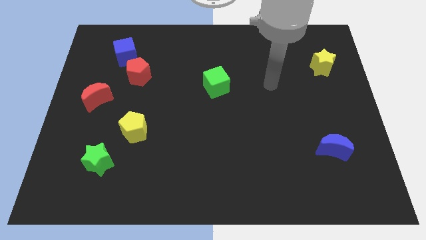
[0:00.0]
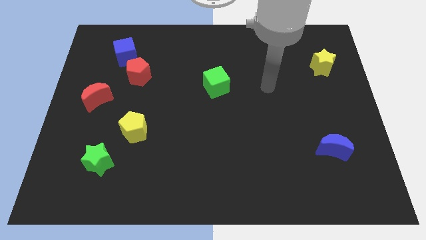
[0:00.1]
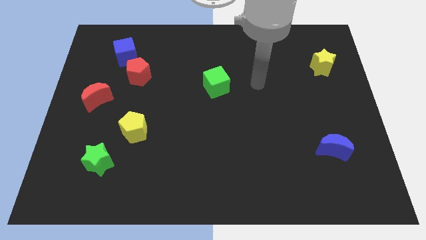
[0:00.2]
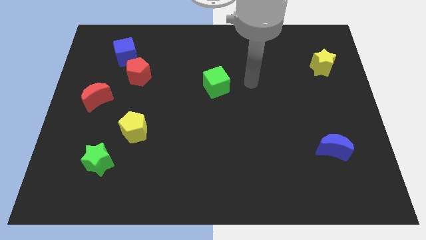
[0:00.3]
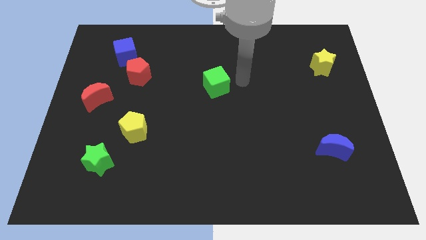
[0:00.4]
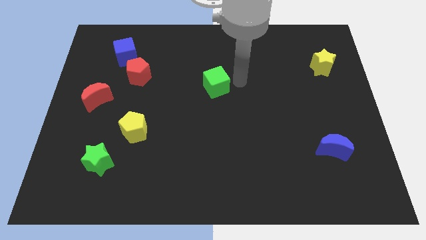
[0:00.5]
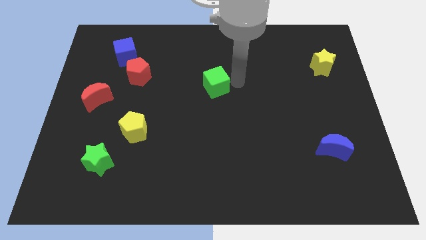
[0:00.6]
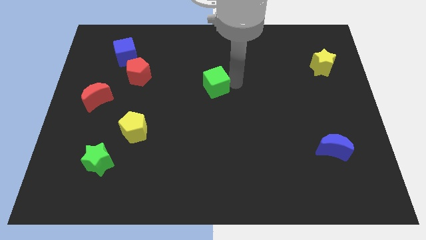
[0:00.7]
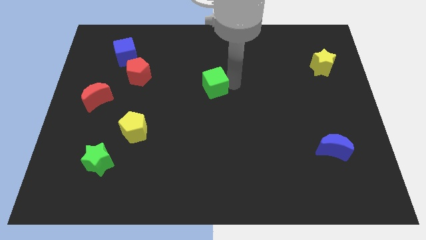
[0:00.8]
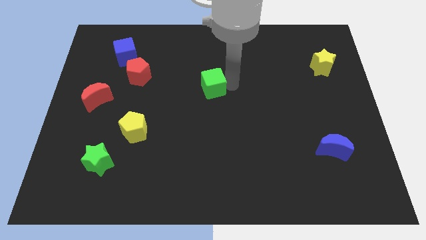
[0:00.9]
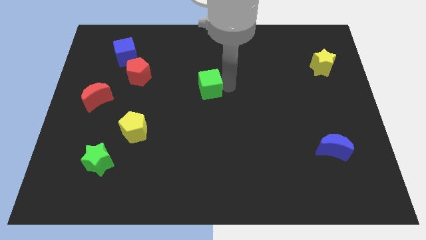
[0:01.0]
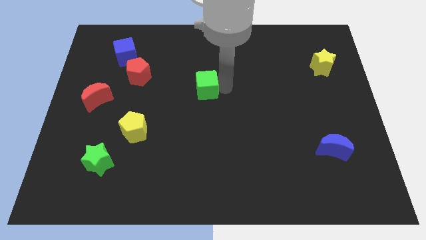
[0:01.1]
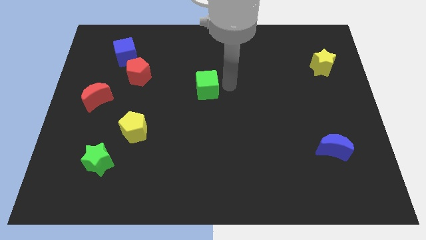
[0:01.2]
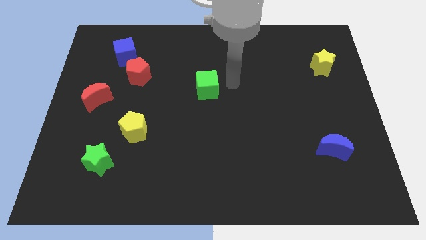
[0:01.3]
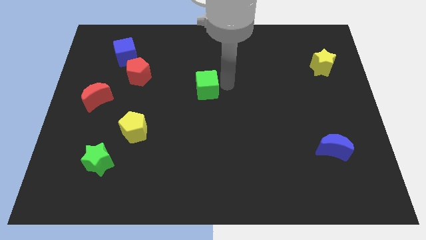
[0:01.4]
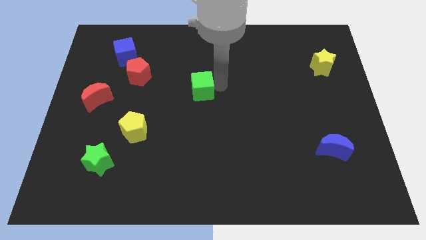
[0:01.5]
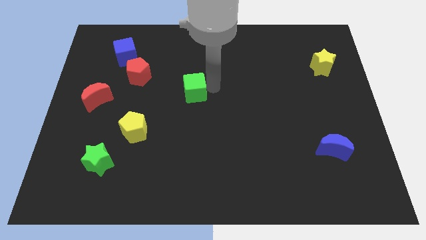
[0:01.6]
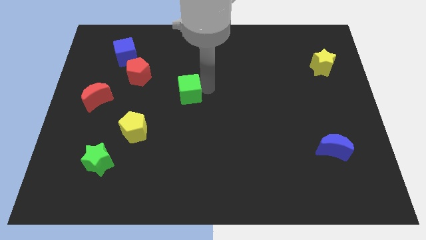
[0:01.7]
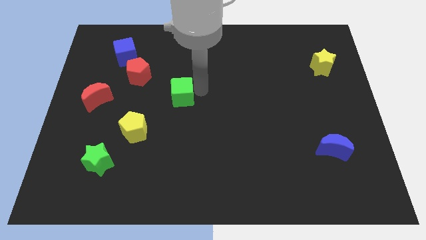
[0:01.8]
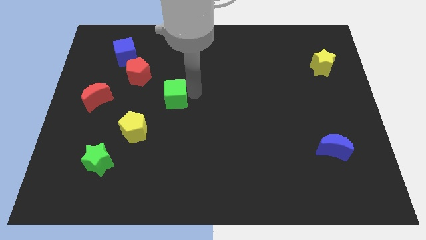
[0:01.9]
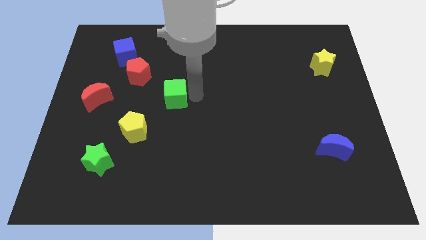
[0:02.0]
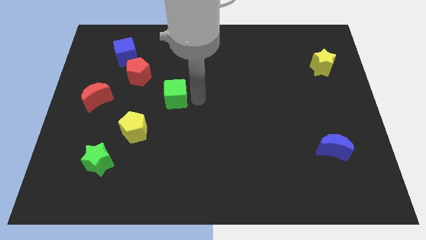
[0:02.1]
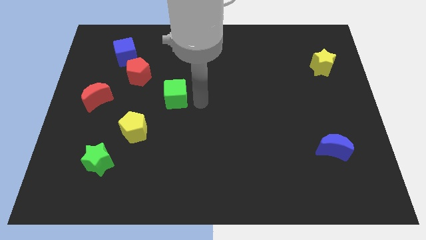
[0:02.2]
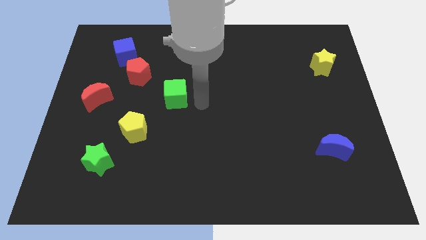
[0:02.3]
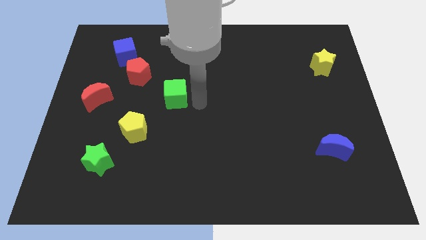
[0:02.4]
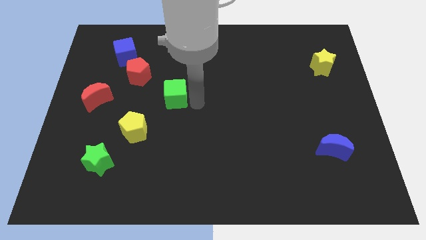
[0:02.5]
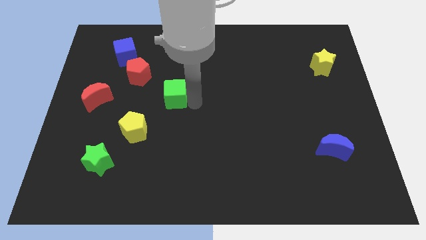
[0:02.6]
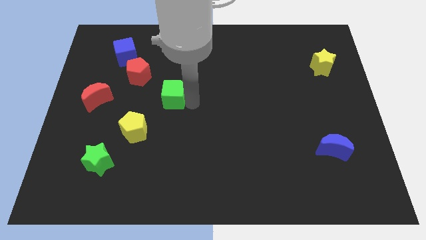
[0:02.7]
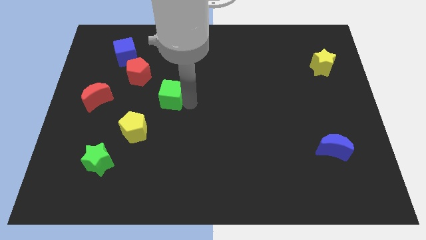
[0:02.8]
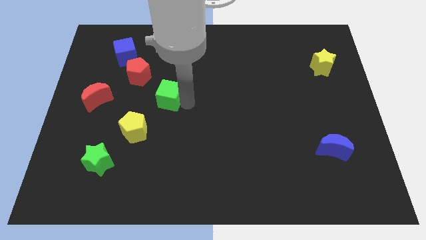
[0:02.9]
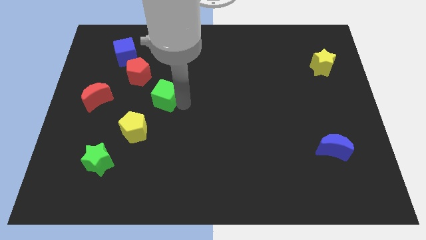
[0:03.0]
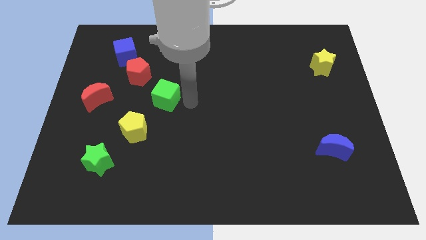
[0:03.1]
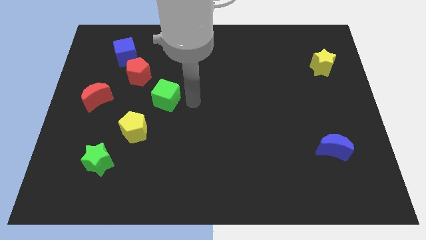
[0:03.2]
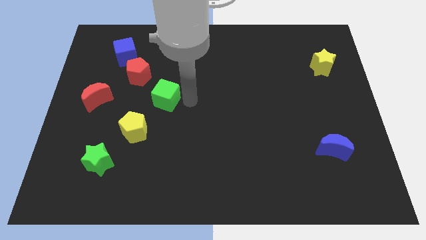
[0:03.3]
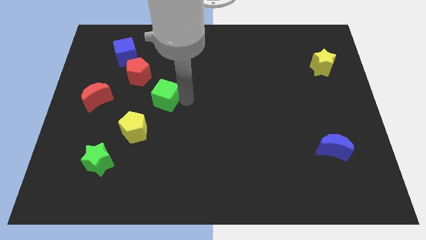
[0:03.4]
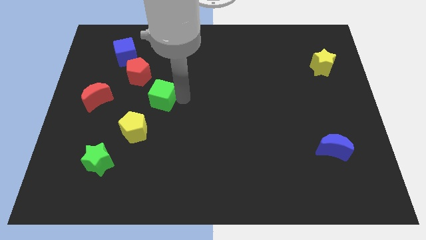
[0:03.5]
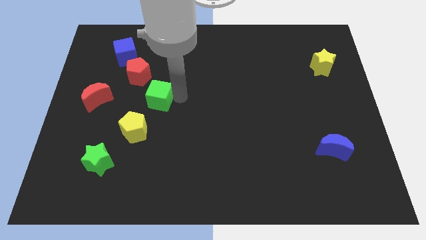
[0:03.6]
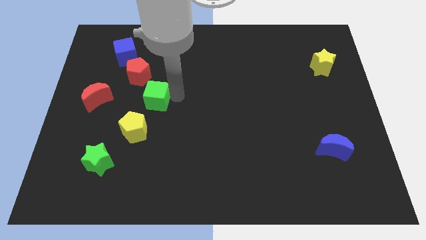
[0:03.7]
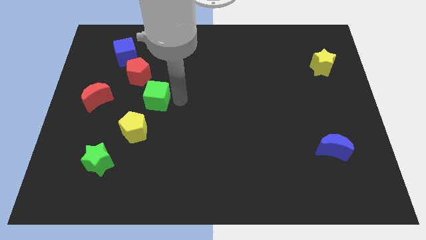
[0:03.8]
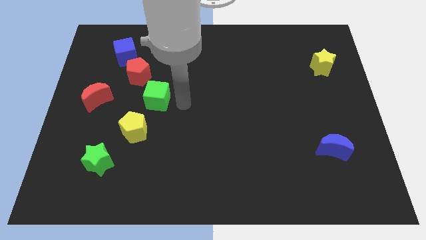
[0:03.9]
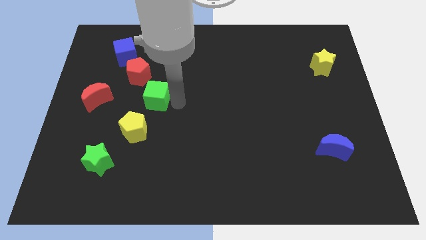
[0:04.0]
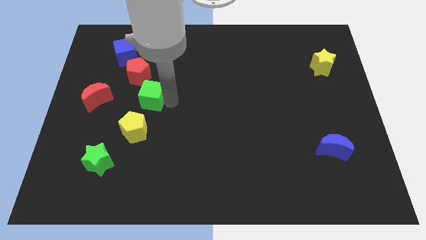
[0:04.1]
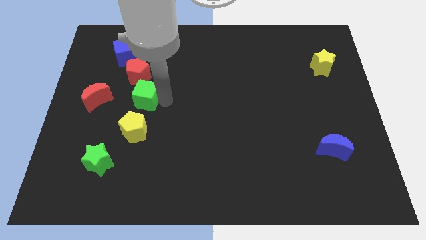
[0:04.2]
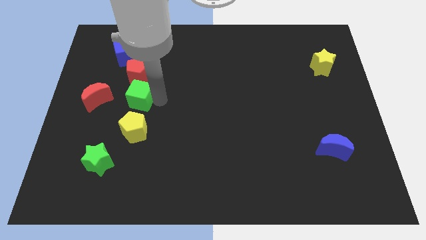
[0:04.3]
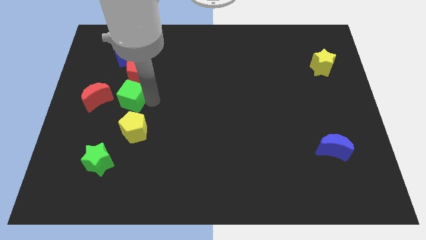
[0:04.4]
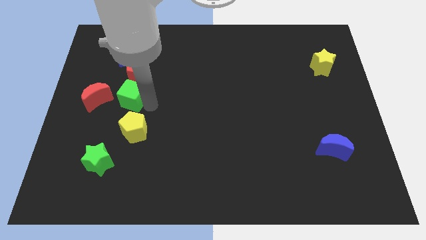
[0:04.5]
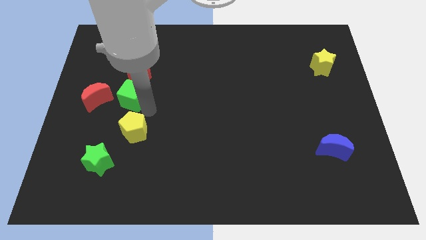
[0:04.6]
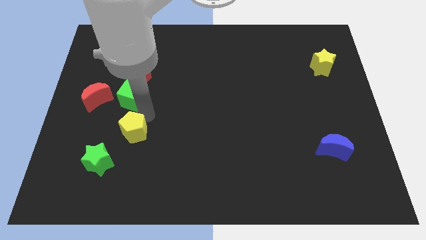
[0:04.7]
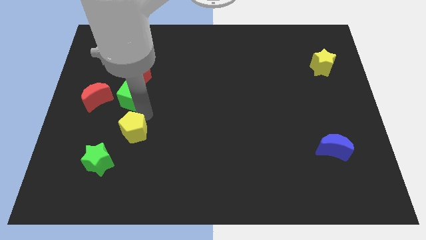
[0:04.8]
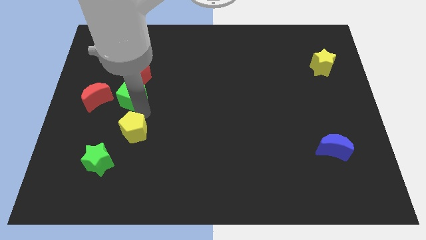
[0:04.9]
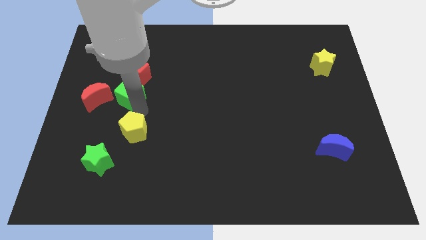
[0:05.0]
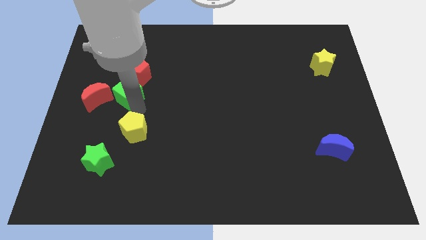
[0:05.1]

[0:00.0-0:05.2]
push the green cube diagonally up and to the right of the red moon
